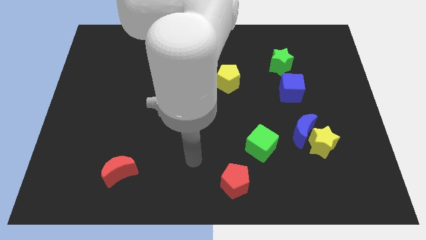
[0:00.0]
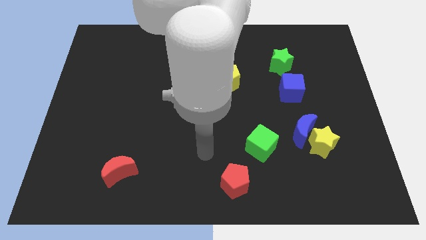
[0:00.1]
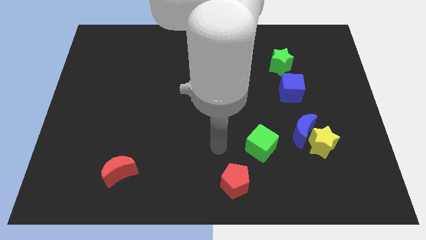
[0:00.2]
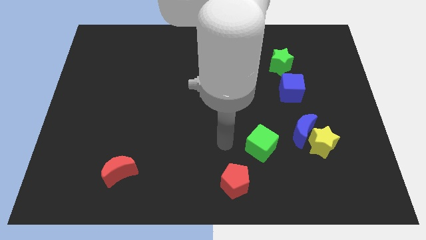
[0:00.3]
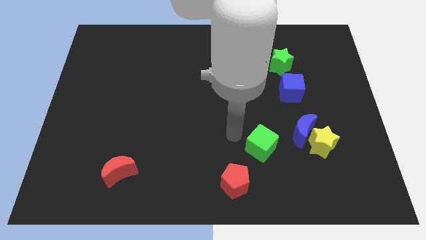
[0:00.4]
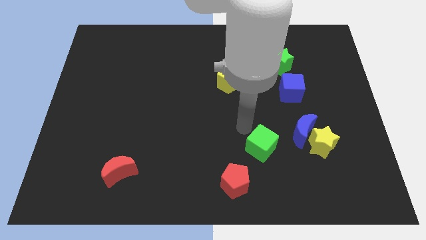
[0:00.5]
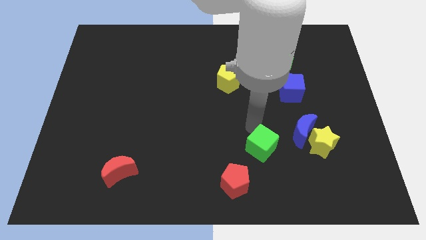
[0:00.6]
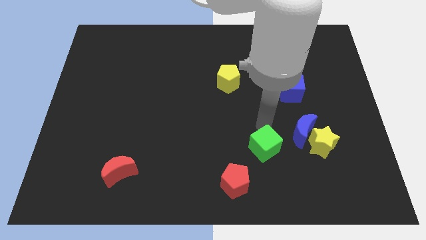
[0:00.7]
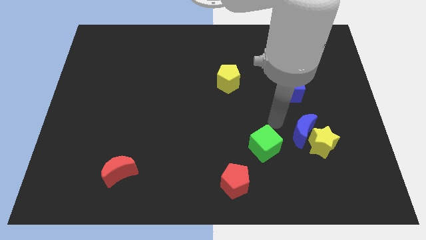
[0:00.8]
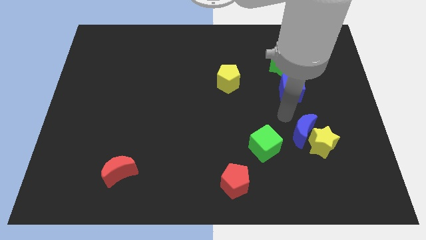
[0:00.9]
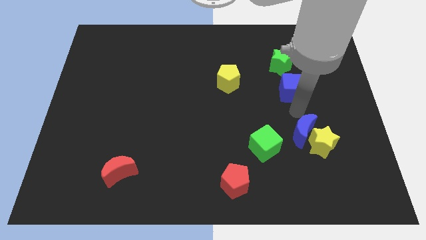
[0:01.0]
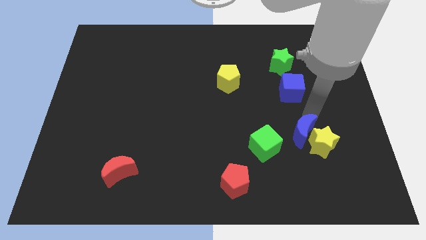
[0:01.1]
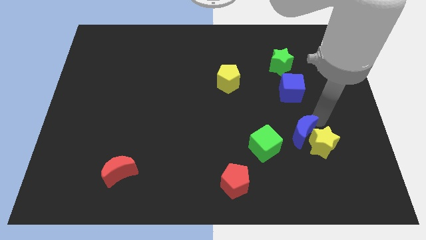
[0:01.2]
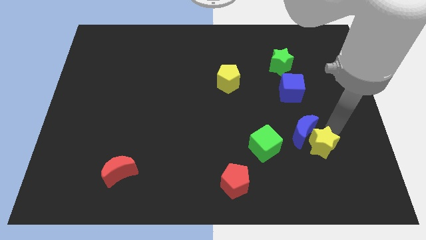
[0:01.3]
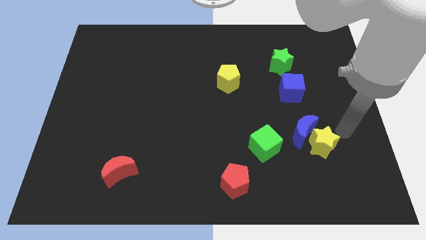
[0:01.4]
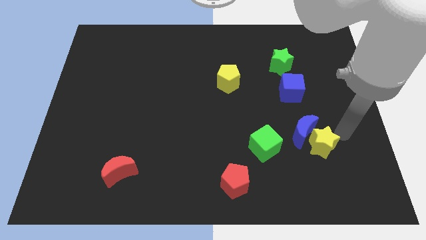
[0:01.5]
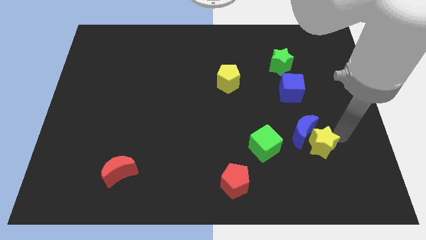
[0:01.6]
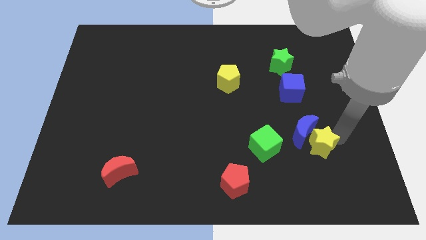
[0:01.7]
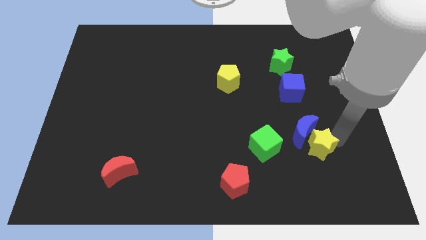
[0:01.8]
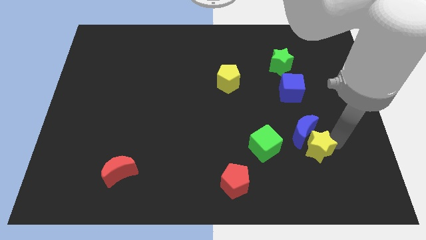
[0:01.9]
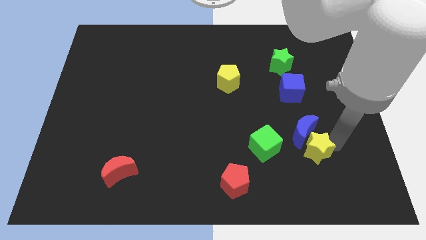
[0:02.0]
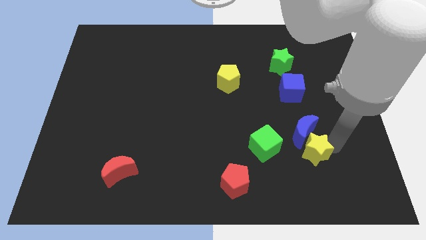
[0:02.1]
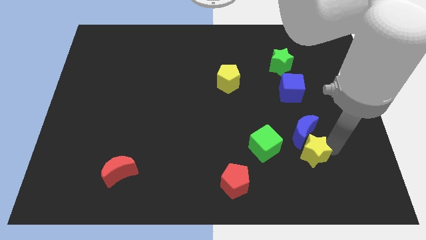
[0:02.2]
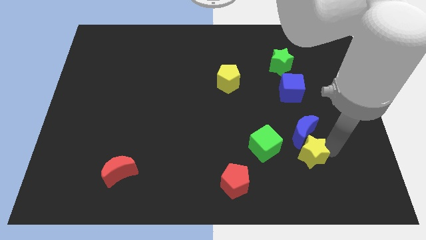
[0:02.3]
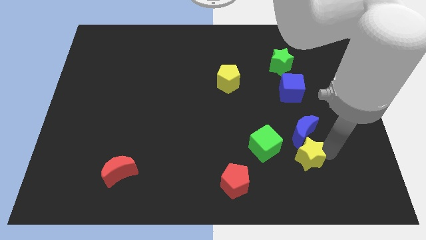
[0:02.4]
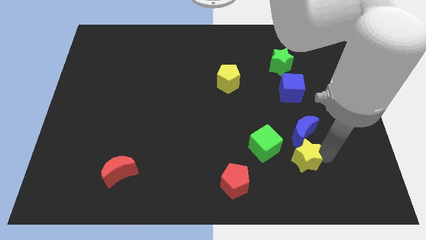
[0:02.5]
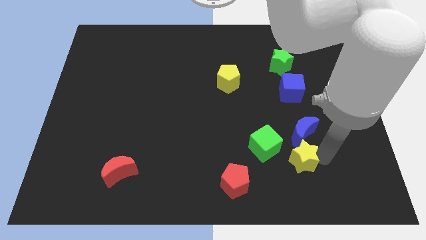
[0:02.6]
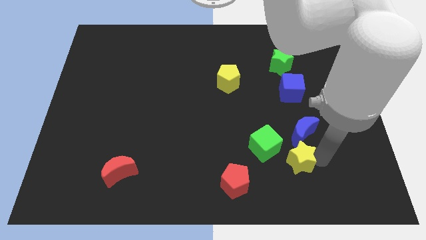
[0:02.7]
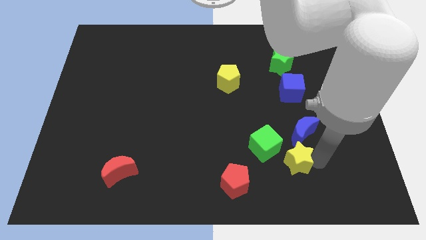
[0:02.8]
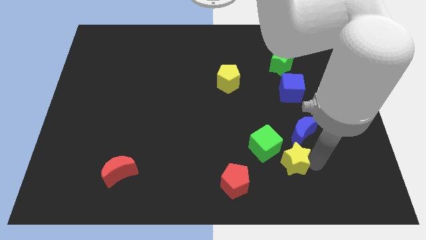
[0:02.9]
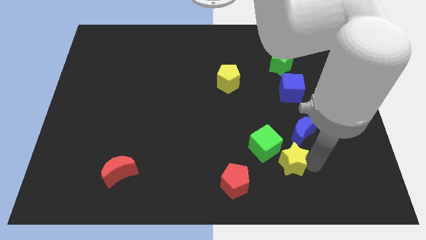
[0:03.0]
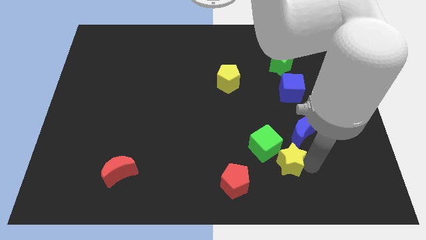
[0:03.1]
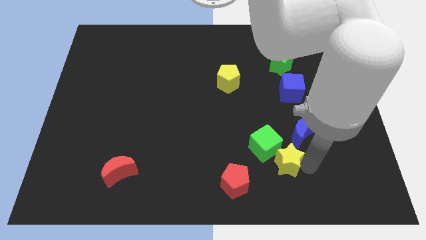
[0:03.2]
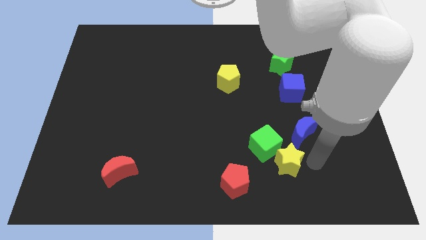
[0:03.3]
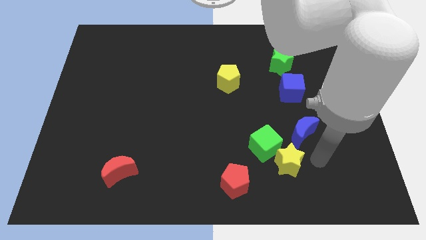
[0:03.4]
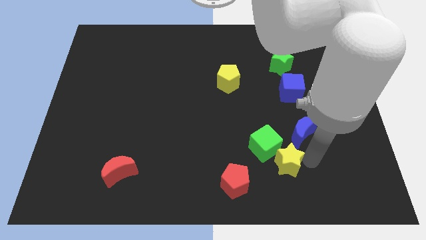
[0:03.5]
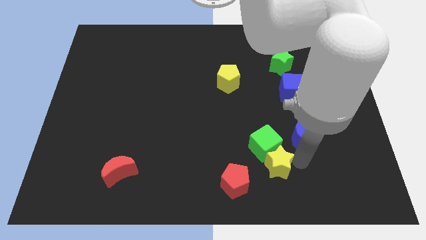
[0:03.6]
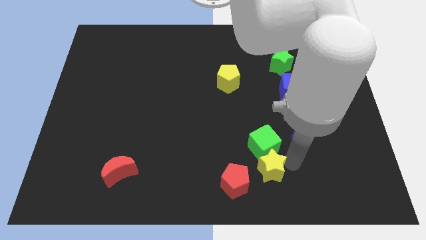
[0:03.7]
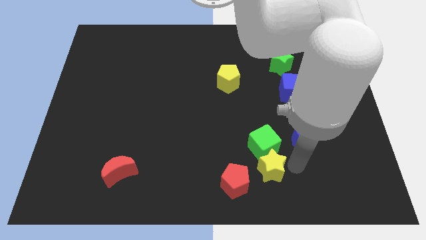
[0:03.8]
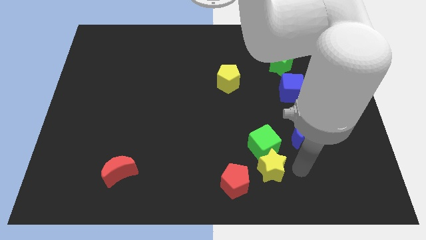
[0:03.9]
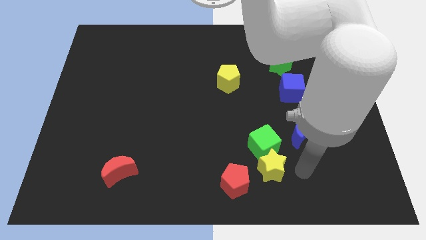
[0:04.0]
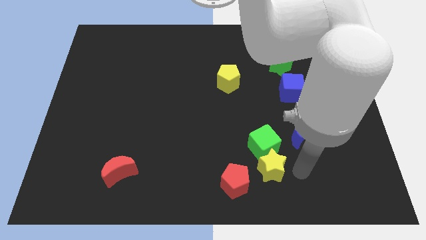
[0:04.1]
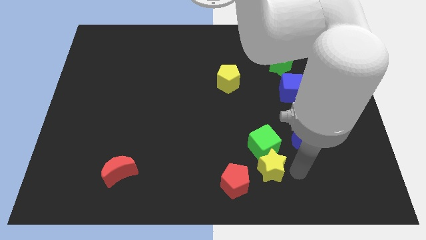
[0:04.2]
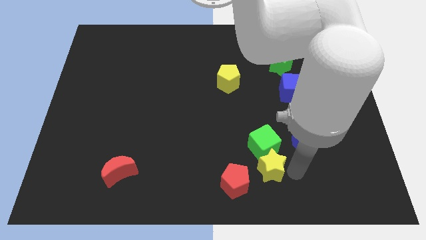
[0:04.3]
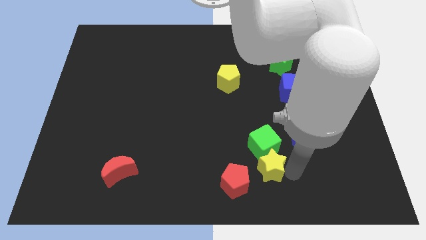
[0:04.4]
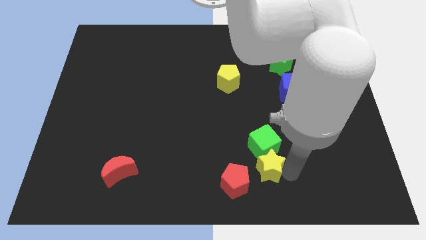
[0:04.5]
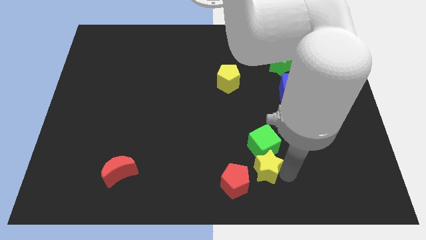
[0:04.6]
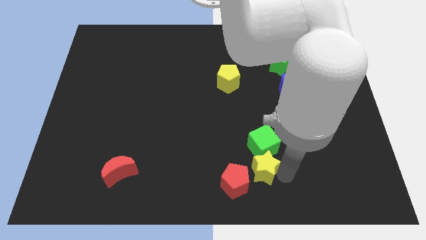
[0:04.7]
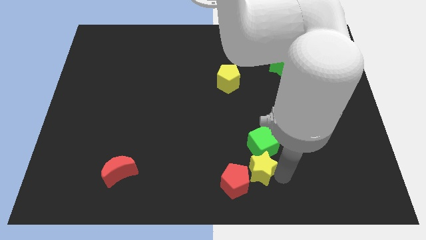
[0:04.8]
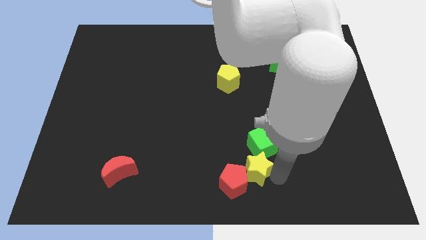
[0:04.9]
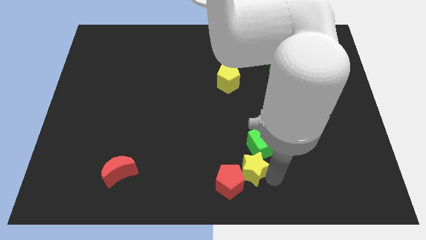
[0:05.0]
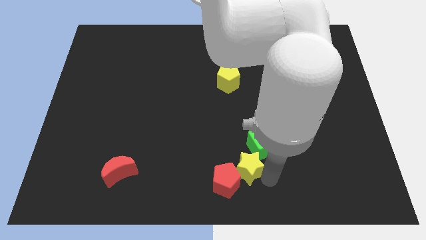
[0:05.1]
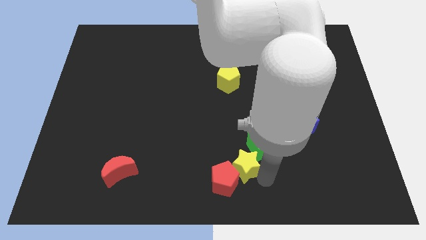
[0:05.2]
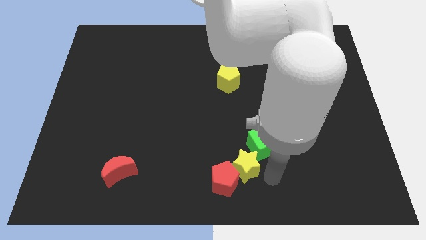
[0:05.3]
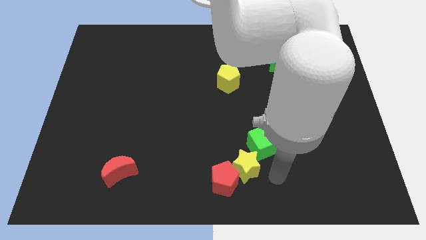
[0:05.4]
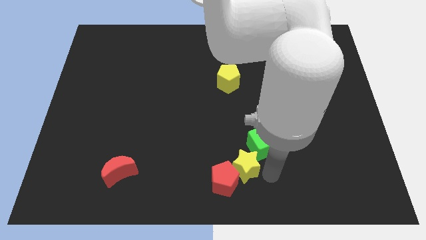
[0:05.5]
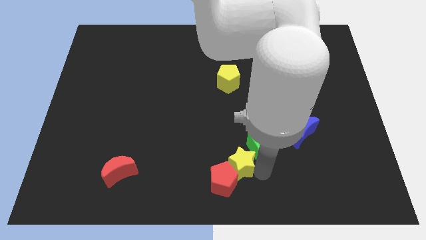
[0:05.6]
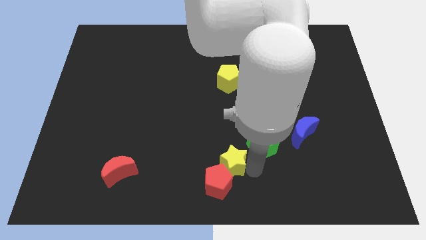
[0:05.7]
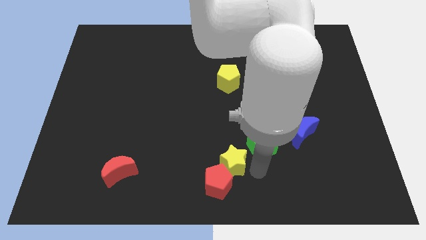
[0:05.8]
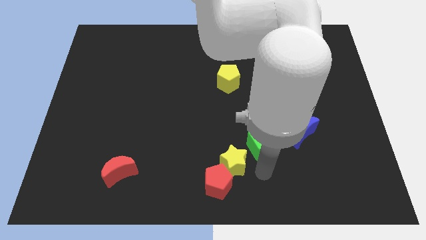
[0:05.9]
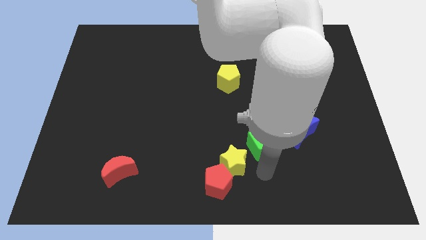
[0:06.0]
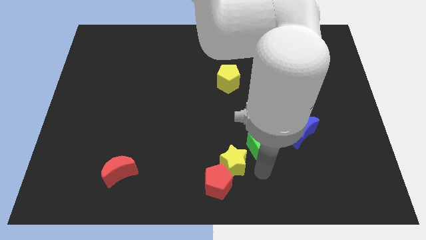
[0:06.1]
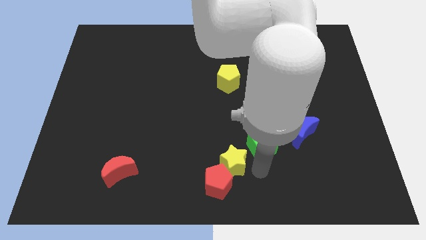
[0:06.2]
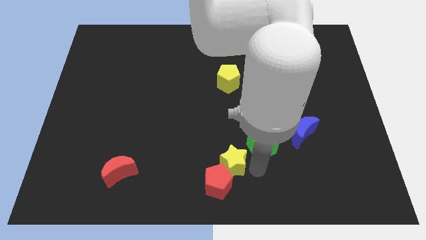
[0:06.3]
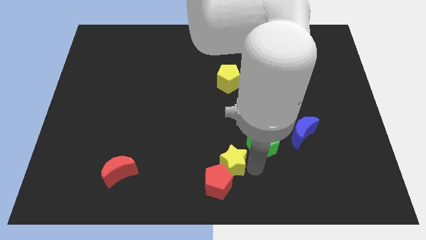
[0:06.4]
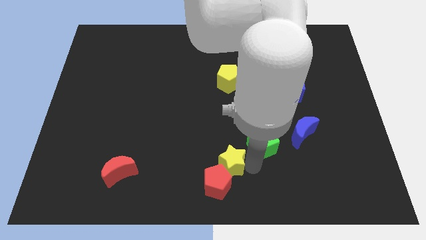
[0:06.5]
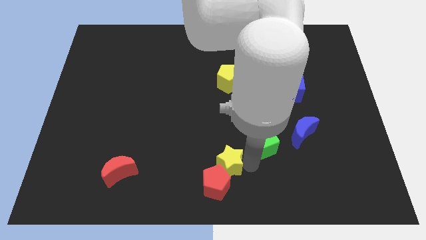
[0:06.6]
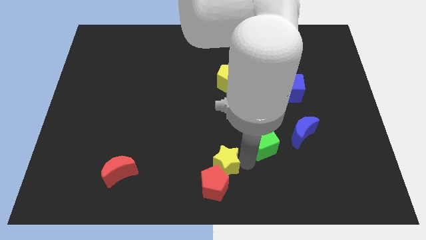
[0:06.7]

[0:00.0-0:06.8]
slide the yellow star left

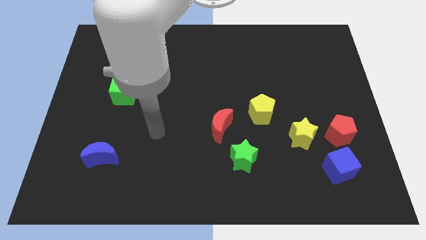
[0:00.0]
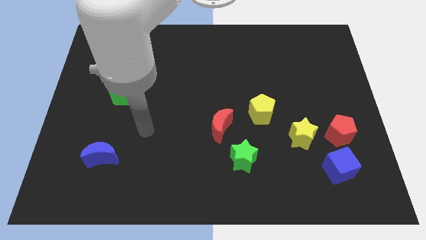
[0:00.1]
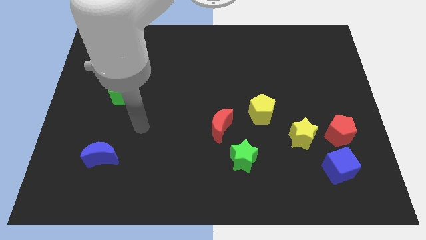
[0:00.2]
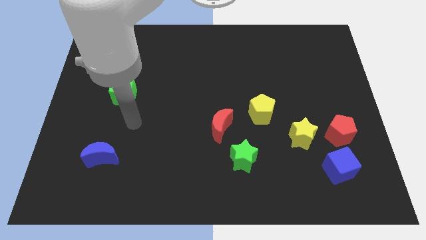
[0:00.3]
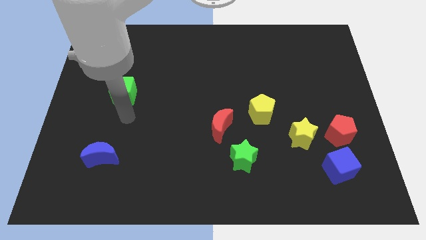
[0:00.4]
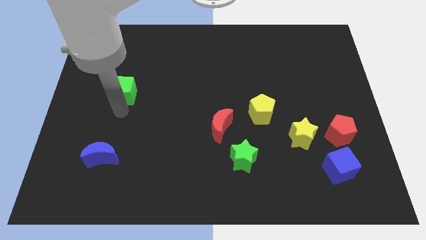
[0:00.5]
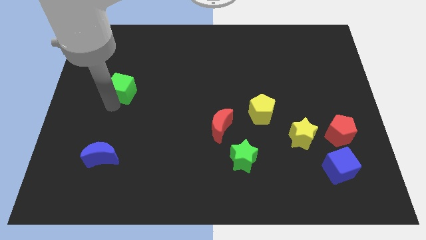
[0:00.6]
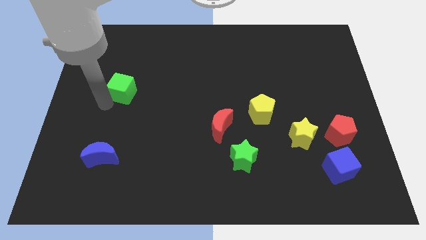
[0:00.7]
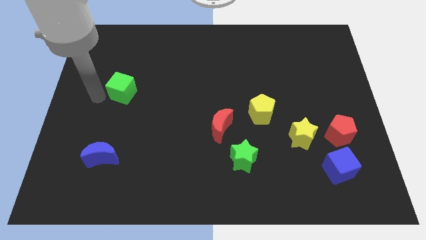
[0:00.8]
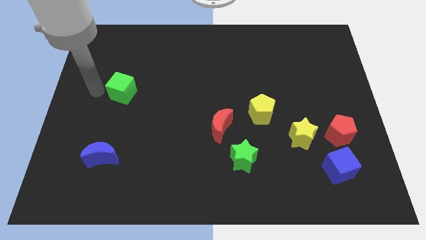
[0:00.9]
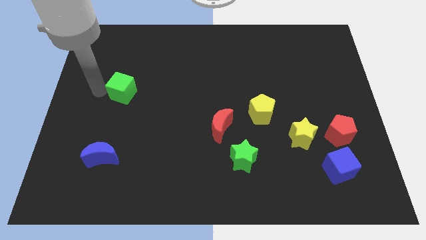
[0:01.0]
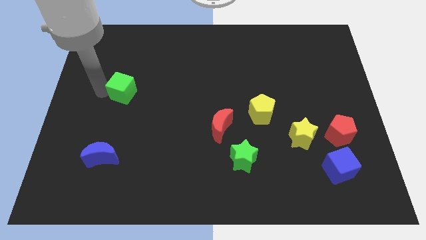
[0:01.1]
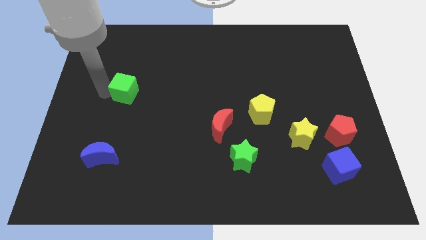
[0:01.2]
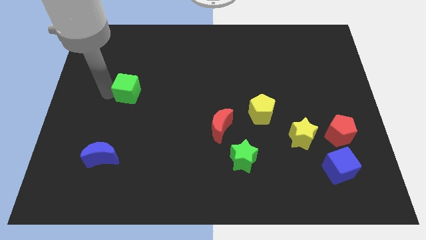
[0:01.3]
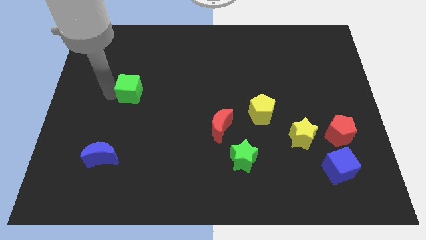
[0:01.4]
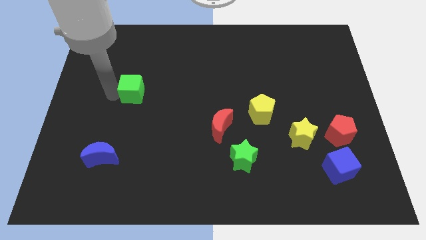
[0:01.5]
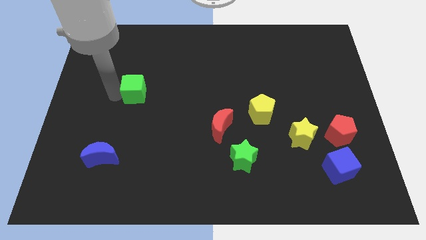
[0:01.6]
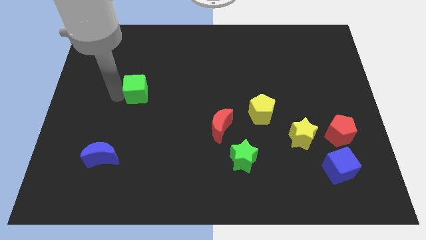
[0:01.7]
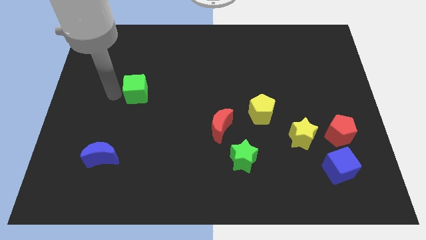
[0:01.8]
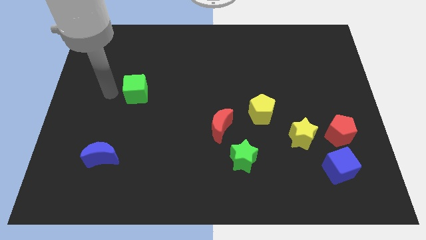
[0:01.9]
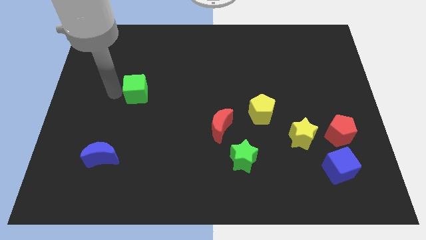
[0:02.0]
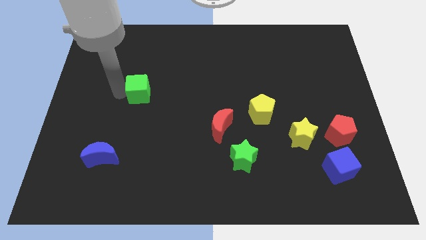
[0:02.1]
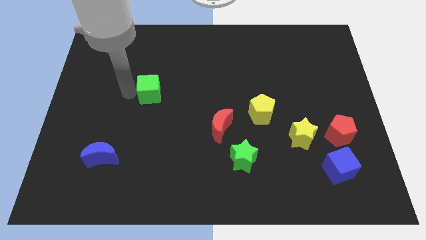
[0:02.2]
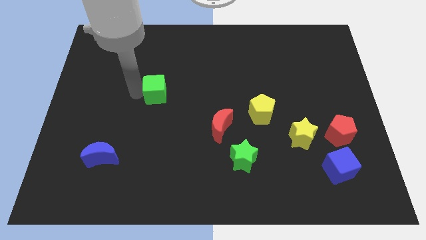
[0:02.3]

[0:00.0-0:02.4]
slightly move the green cube right
